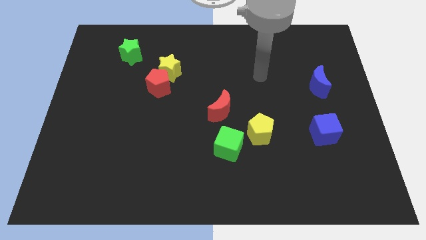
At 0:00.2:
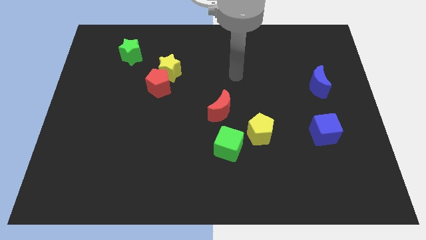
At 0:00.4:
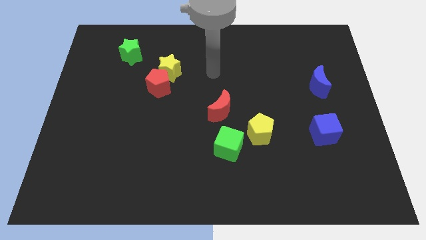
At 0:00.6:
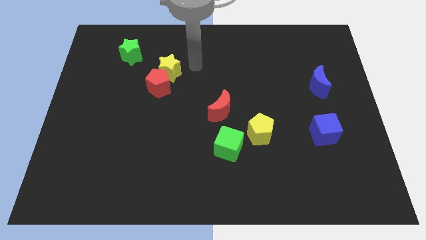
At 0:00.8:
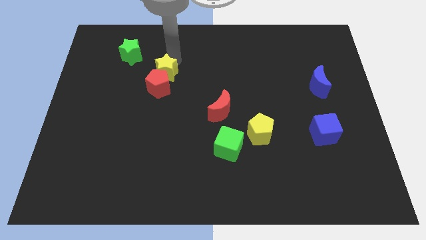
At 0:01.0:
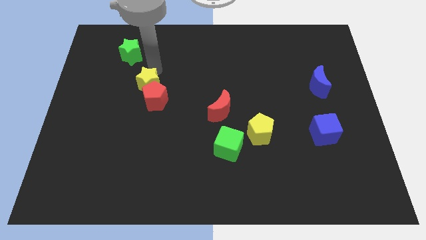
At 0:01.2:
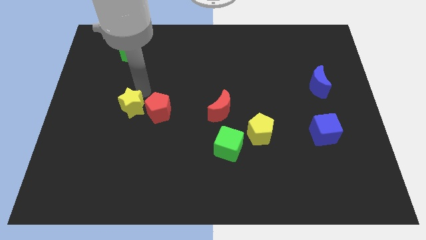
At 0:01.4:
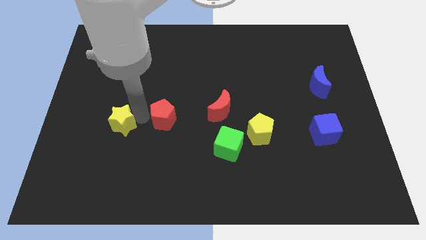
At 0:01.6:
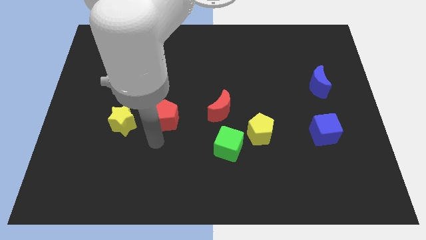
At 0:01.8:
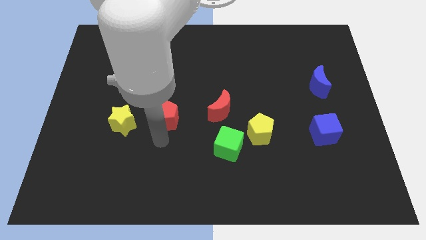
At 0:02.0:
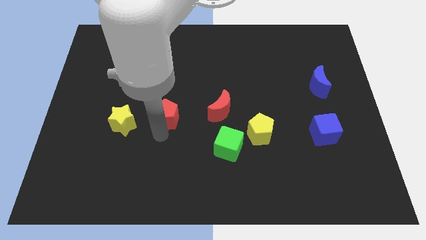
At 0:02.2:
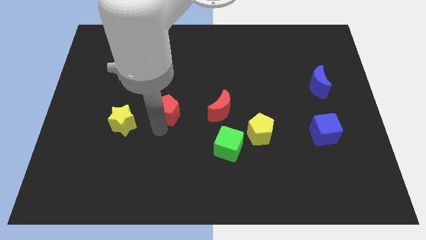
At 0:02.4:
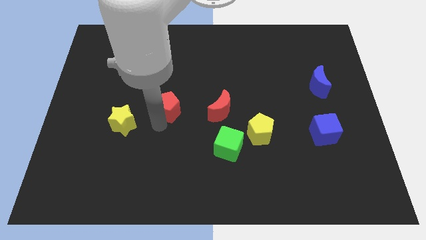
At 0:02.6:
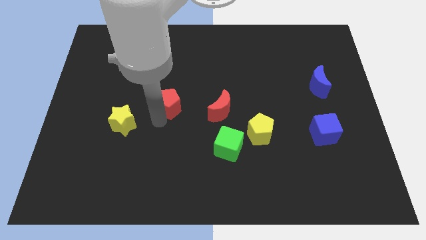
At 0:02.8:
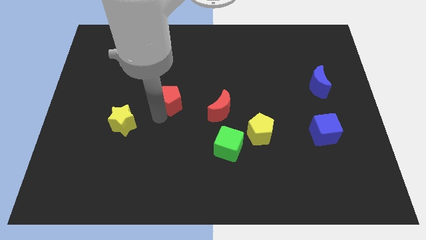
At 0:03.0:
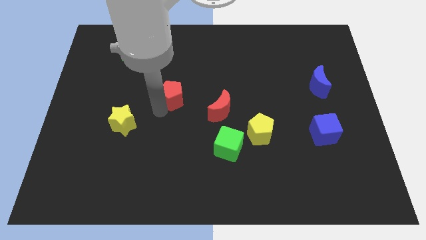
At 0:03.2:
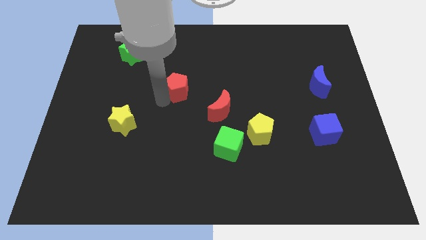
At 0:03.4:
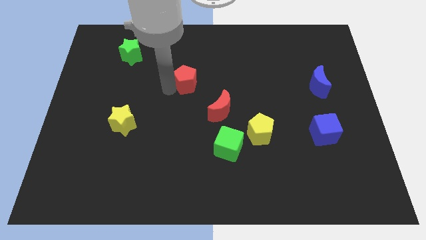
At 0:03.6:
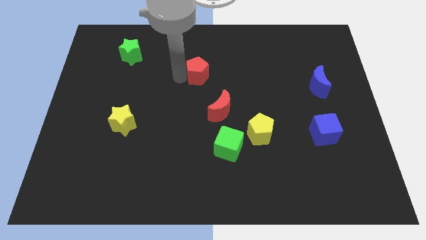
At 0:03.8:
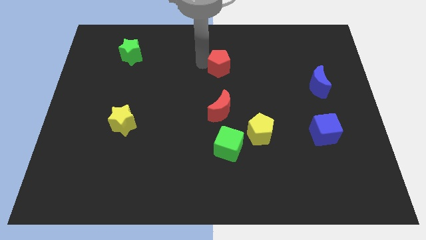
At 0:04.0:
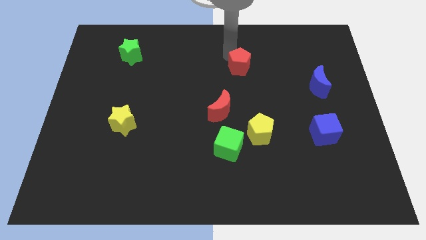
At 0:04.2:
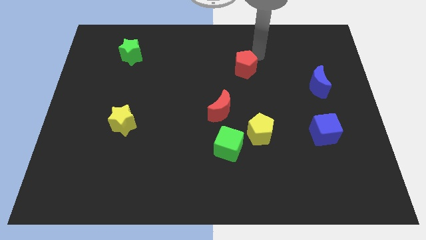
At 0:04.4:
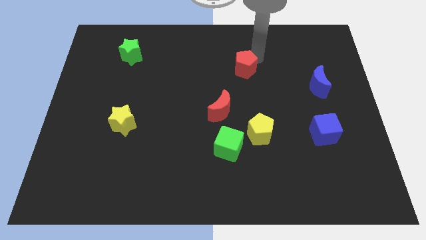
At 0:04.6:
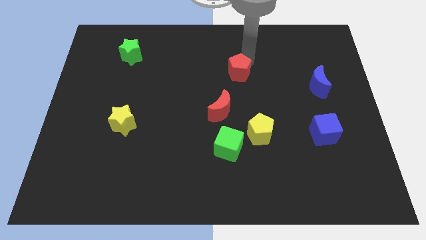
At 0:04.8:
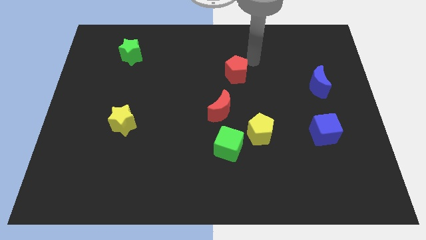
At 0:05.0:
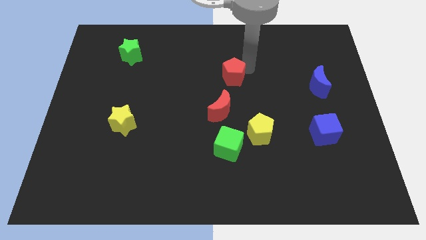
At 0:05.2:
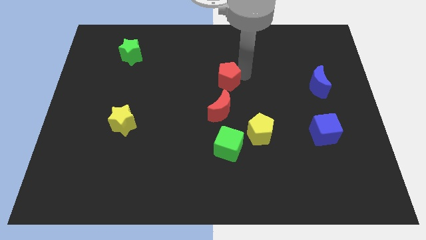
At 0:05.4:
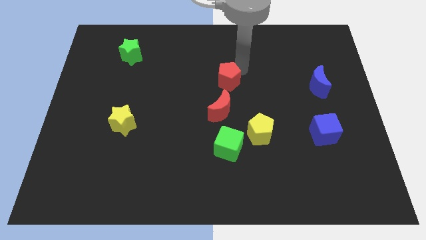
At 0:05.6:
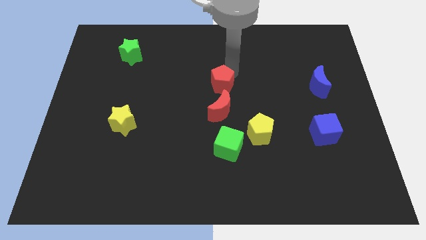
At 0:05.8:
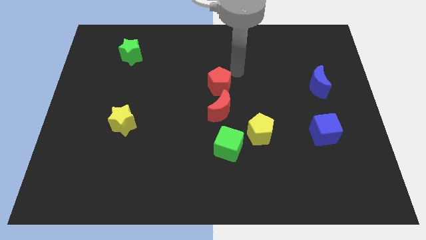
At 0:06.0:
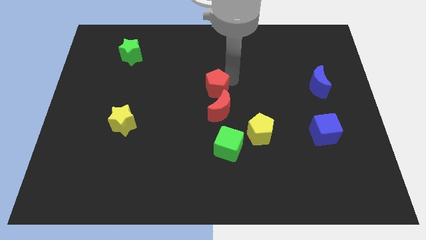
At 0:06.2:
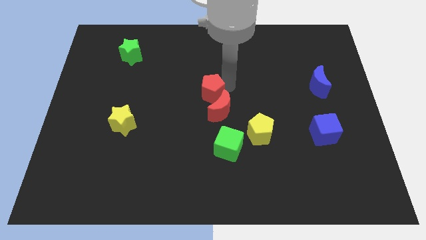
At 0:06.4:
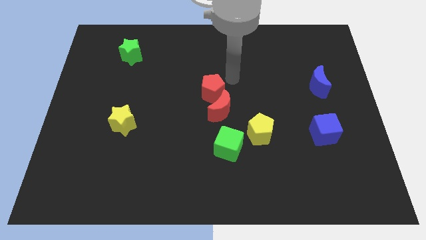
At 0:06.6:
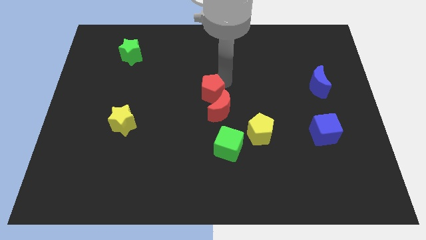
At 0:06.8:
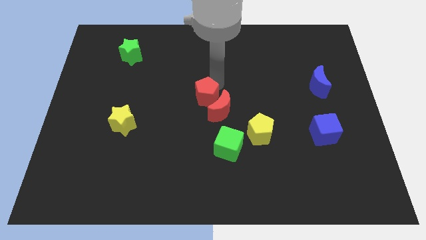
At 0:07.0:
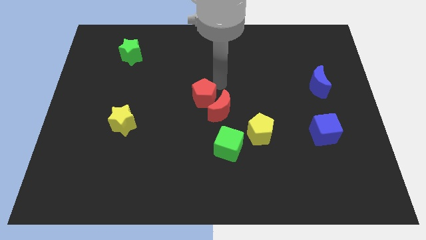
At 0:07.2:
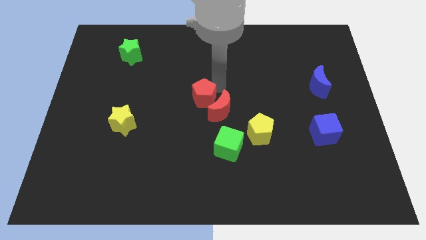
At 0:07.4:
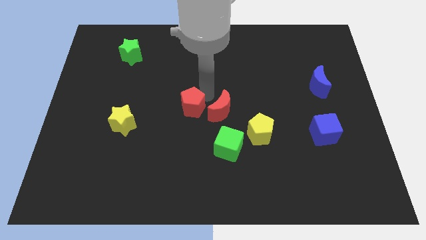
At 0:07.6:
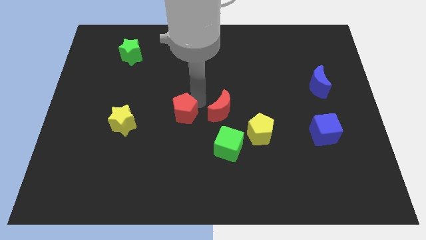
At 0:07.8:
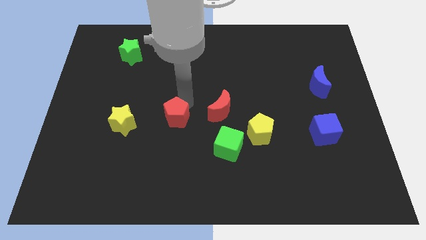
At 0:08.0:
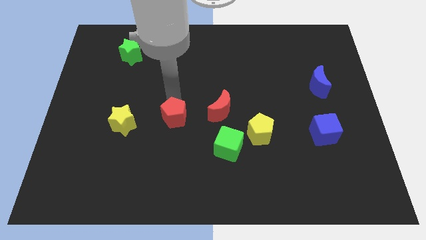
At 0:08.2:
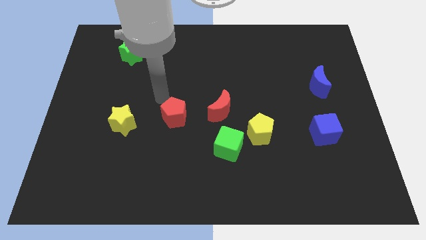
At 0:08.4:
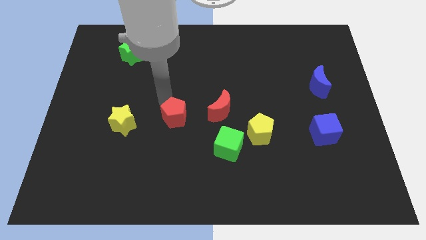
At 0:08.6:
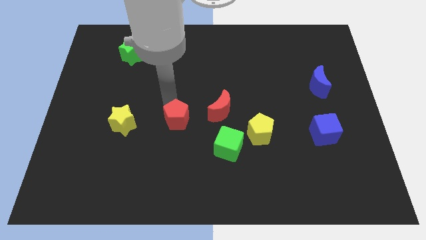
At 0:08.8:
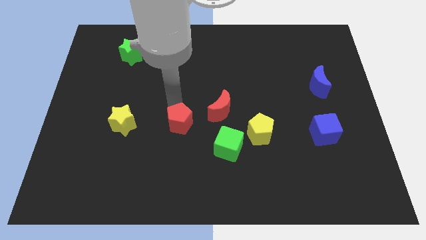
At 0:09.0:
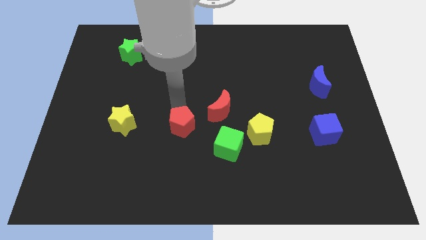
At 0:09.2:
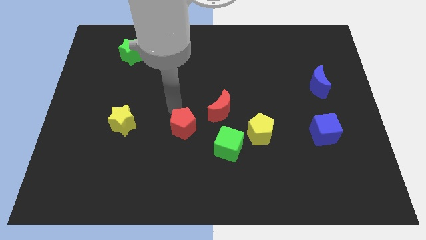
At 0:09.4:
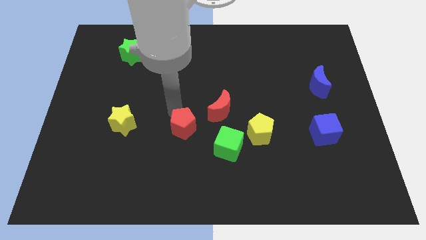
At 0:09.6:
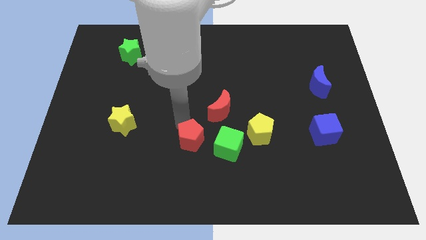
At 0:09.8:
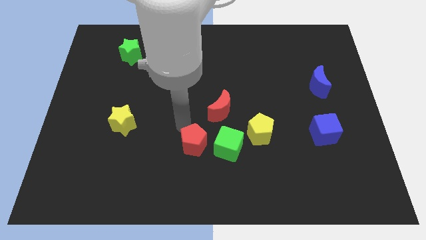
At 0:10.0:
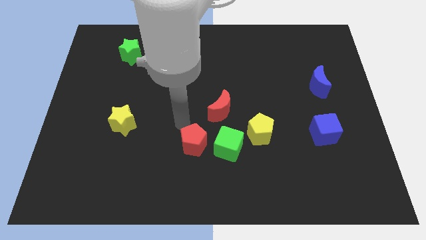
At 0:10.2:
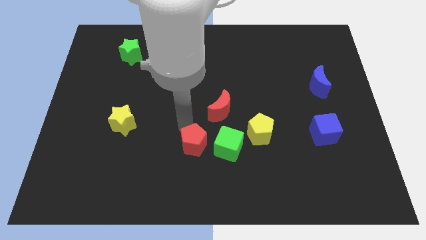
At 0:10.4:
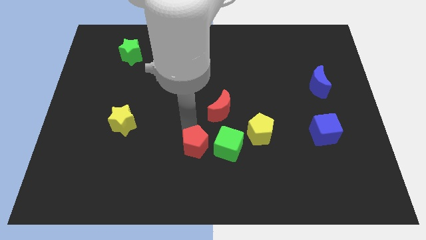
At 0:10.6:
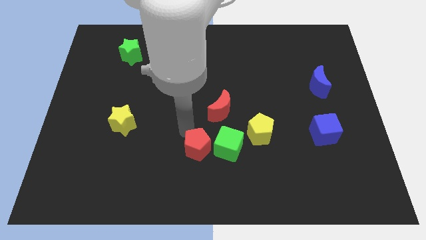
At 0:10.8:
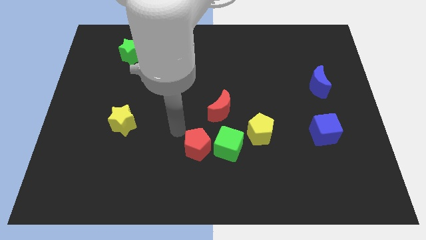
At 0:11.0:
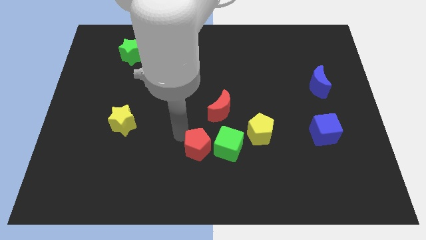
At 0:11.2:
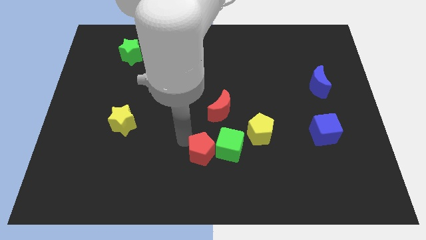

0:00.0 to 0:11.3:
move the red pentagon down and right

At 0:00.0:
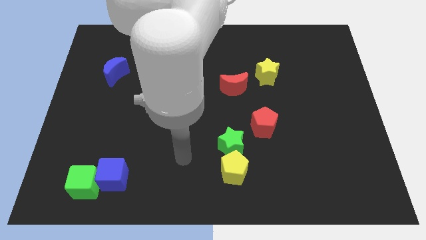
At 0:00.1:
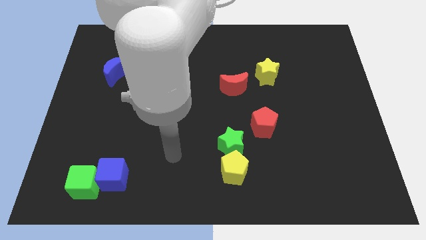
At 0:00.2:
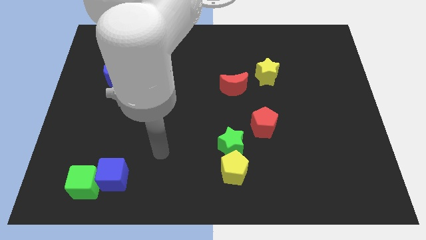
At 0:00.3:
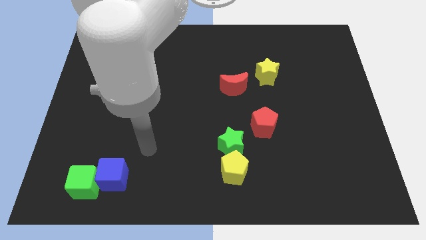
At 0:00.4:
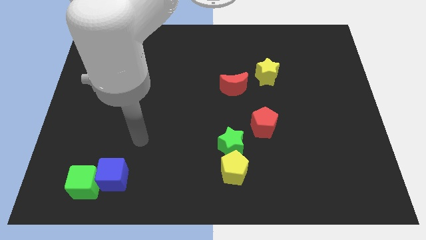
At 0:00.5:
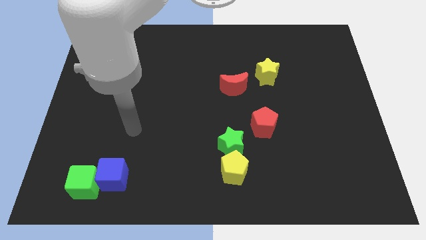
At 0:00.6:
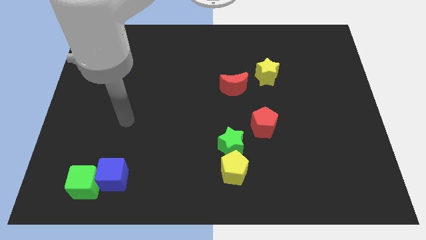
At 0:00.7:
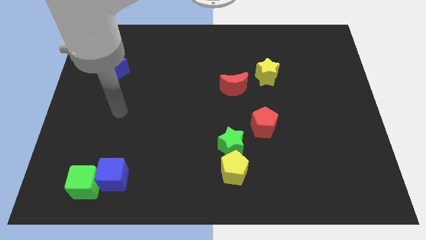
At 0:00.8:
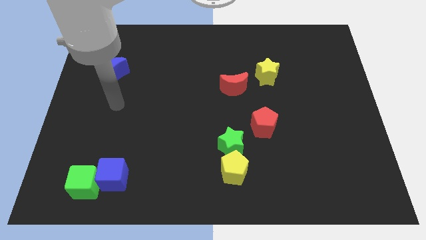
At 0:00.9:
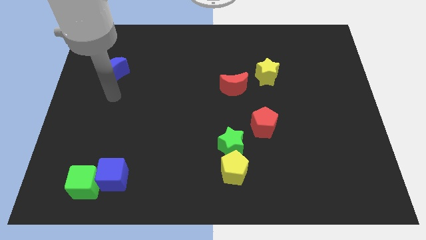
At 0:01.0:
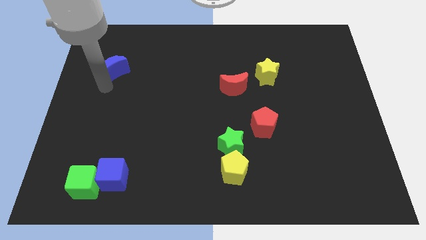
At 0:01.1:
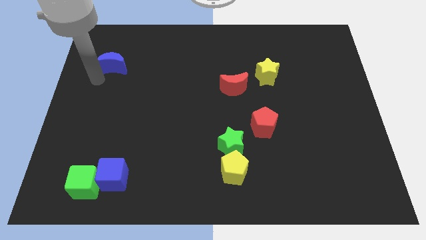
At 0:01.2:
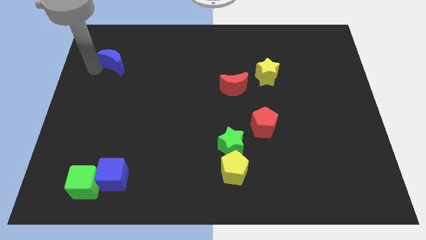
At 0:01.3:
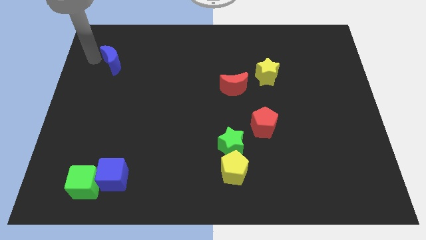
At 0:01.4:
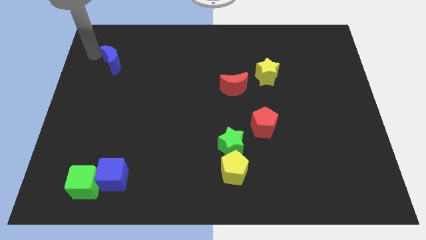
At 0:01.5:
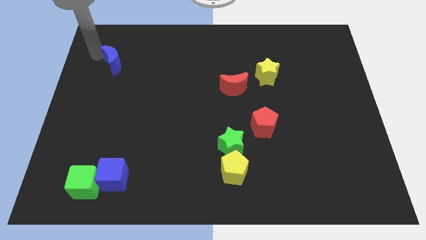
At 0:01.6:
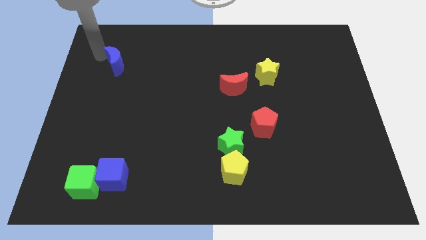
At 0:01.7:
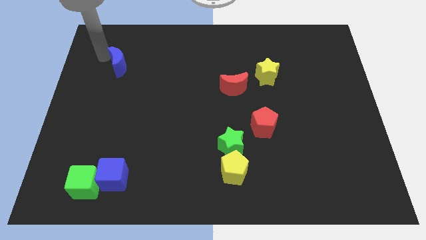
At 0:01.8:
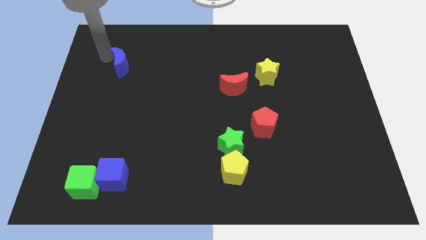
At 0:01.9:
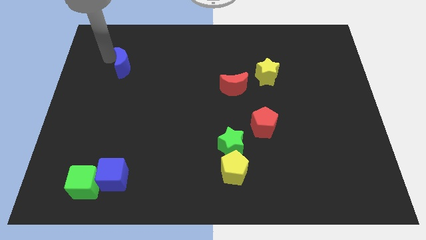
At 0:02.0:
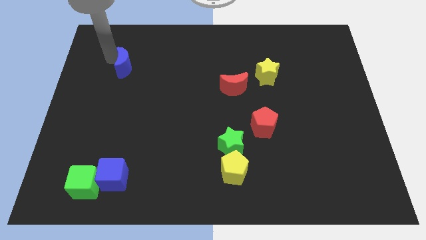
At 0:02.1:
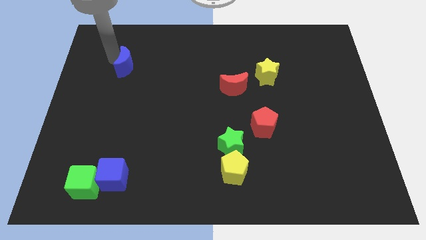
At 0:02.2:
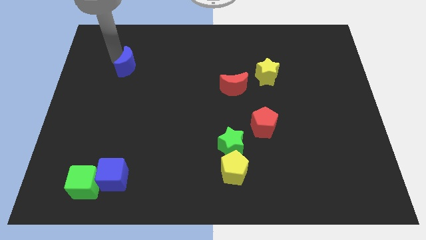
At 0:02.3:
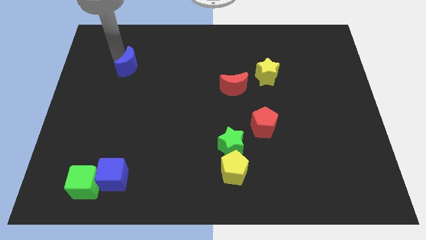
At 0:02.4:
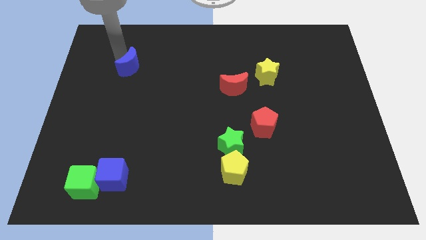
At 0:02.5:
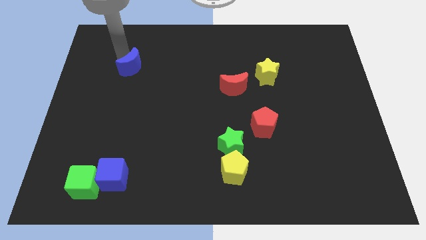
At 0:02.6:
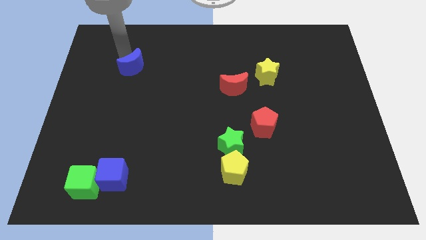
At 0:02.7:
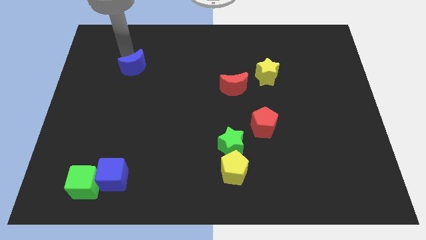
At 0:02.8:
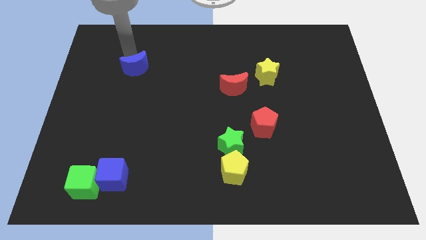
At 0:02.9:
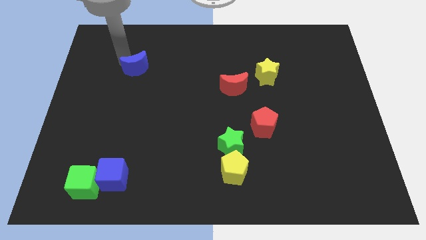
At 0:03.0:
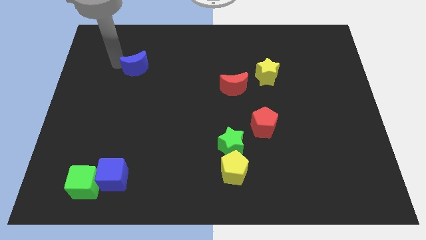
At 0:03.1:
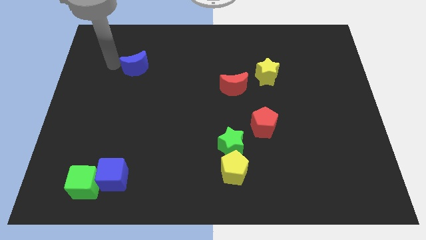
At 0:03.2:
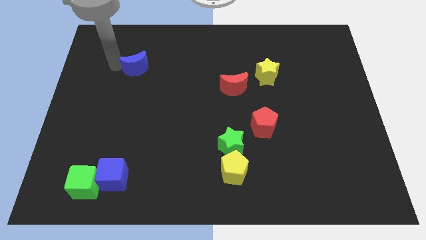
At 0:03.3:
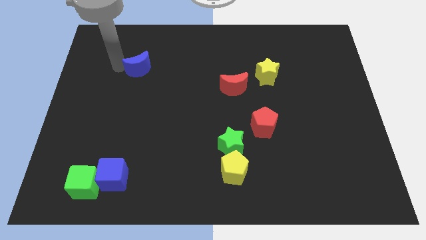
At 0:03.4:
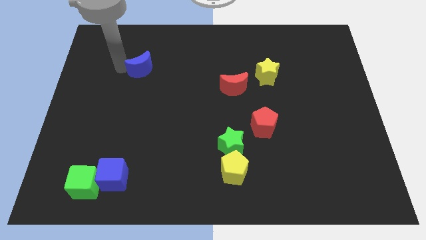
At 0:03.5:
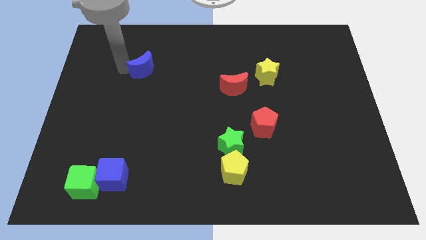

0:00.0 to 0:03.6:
push the blue moon a bit to the right
